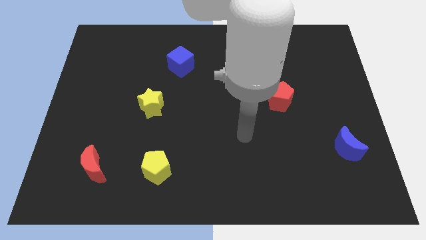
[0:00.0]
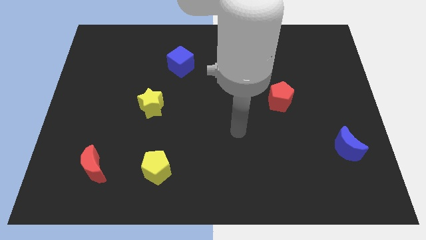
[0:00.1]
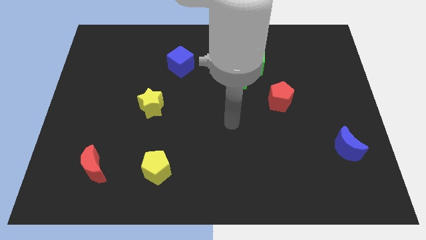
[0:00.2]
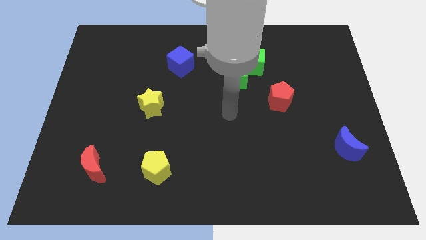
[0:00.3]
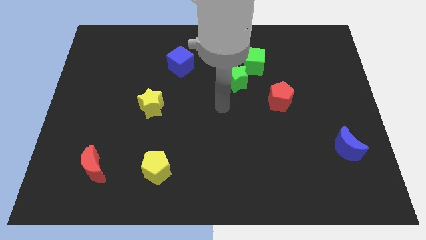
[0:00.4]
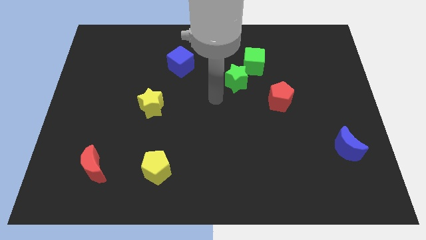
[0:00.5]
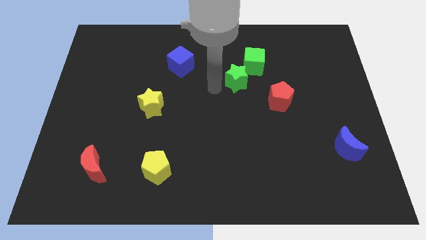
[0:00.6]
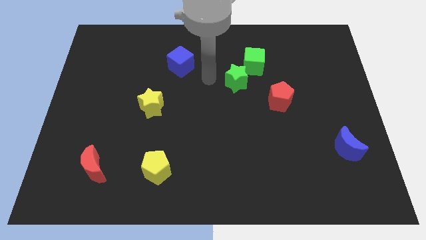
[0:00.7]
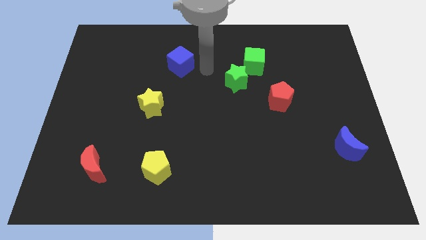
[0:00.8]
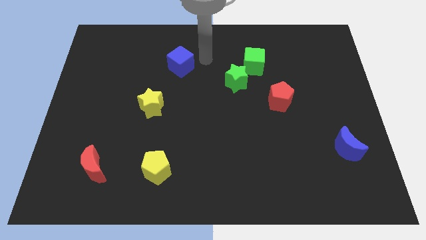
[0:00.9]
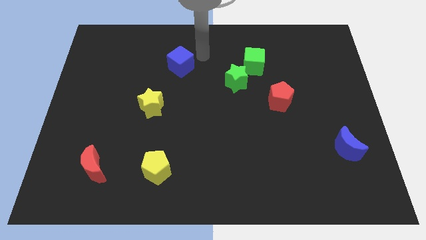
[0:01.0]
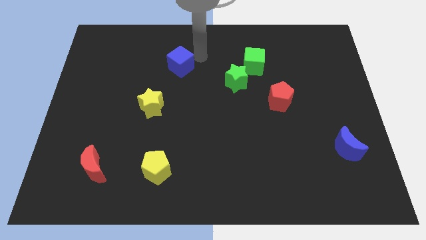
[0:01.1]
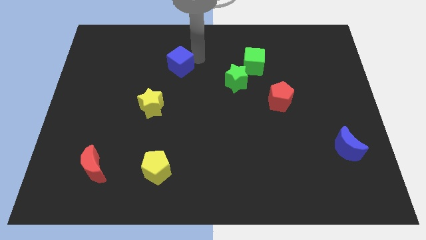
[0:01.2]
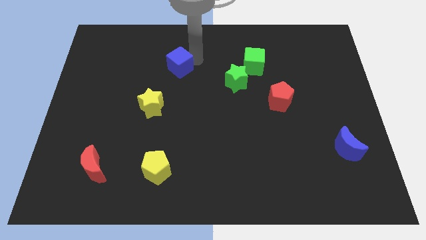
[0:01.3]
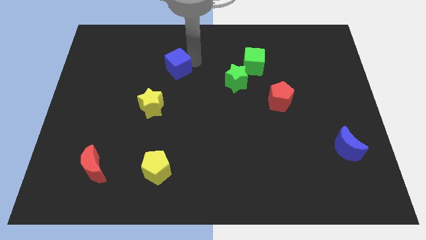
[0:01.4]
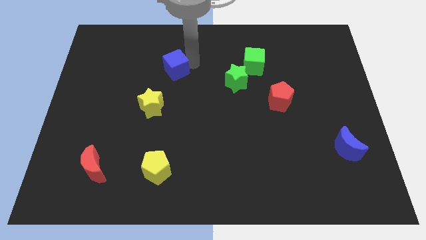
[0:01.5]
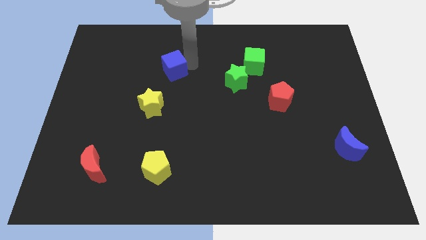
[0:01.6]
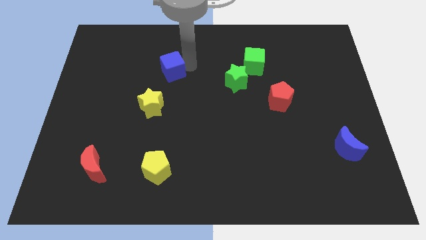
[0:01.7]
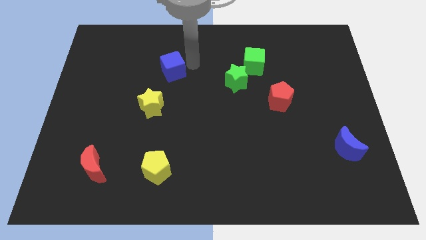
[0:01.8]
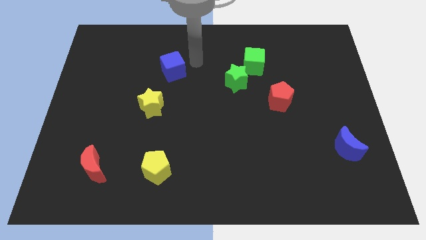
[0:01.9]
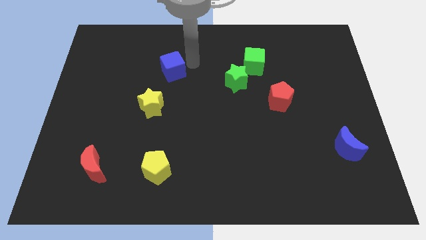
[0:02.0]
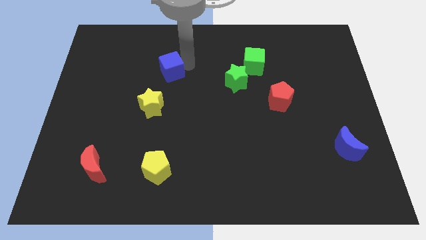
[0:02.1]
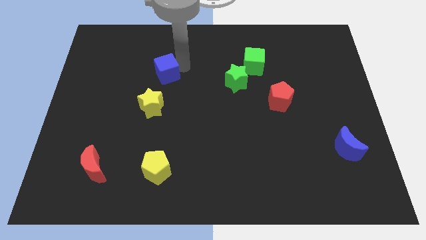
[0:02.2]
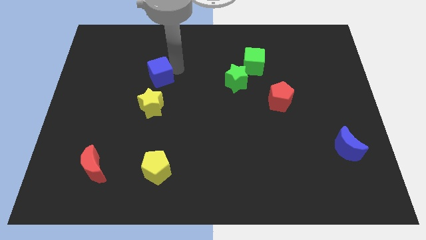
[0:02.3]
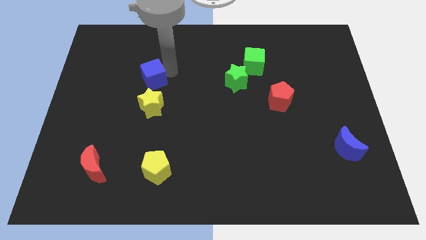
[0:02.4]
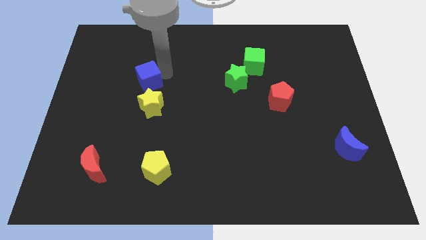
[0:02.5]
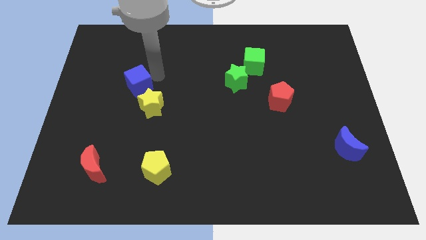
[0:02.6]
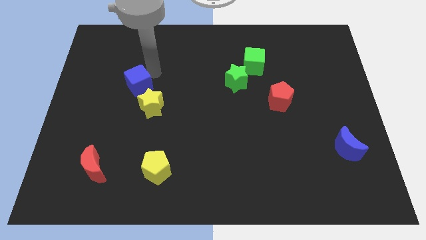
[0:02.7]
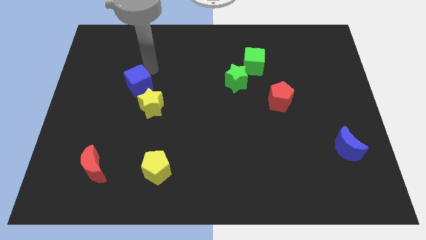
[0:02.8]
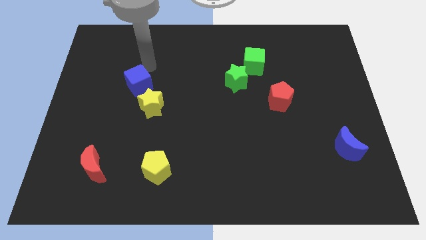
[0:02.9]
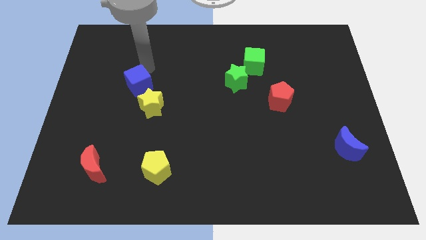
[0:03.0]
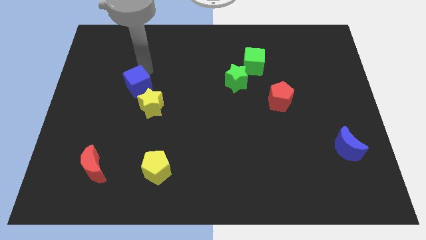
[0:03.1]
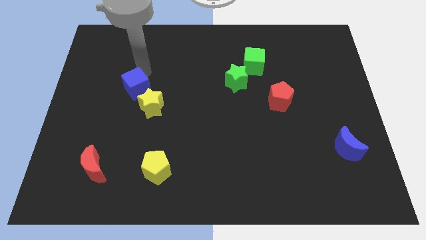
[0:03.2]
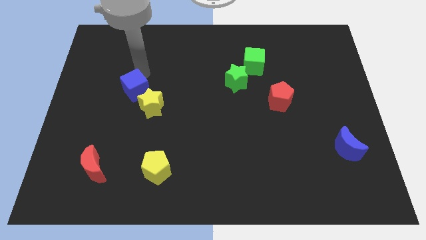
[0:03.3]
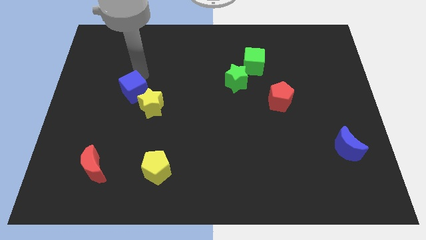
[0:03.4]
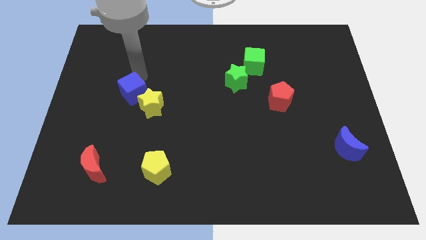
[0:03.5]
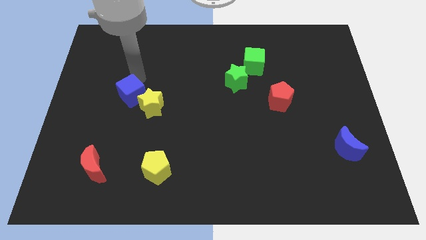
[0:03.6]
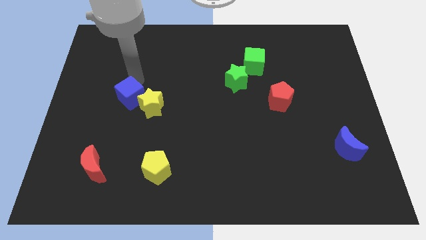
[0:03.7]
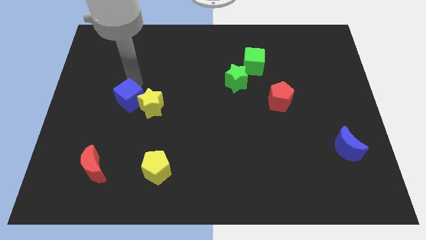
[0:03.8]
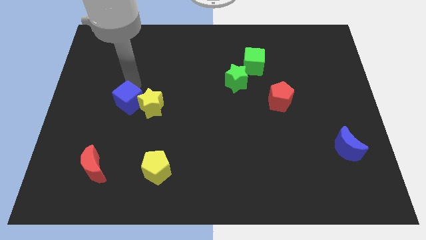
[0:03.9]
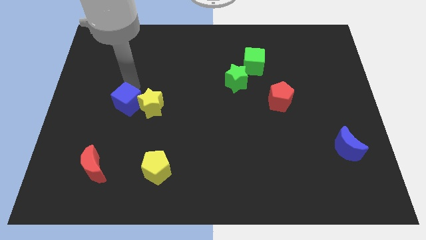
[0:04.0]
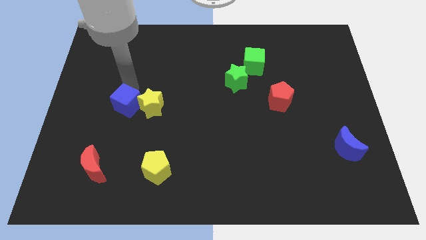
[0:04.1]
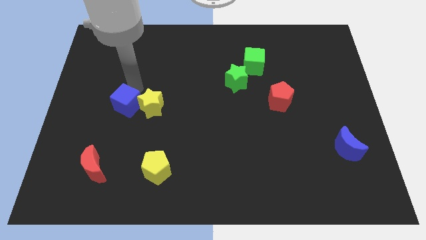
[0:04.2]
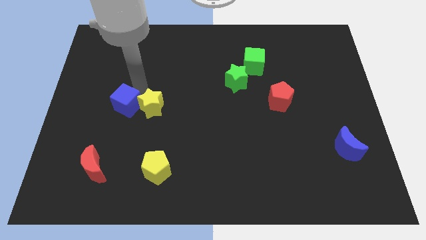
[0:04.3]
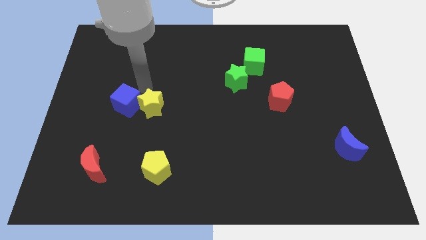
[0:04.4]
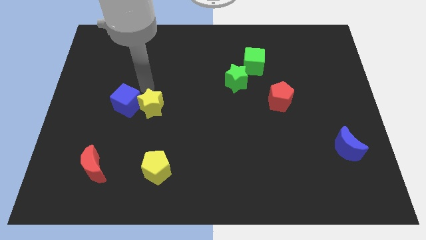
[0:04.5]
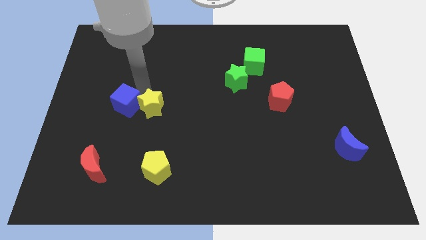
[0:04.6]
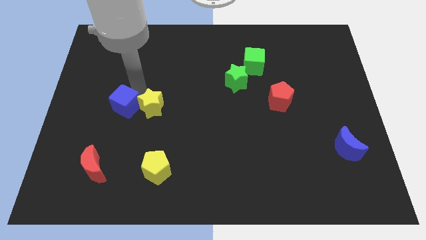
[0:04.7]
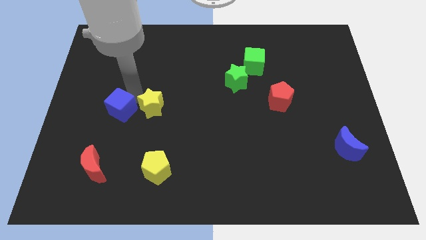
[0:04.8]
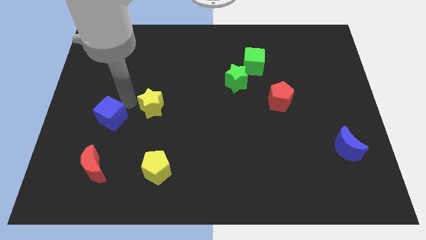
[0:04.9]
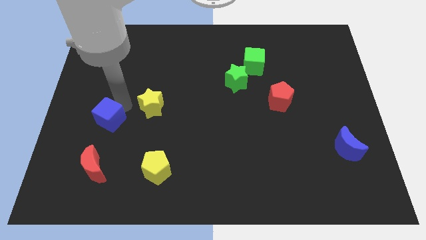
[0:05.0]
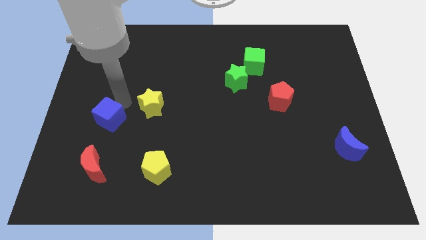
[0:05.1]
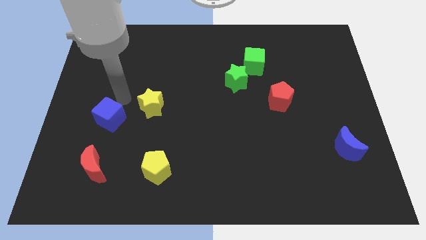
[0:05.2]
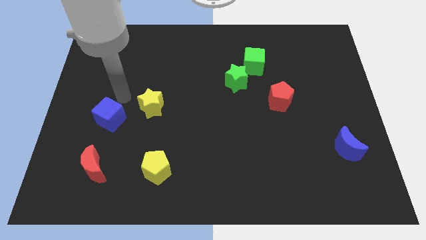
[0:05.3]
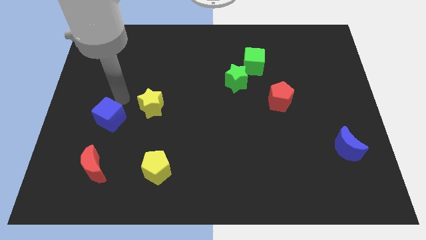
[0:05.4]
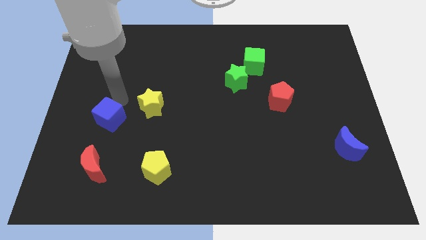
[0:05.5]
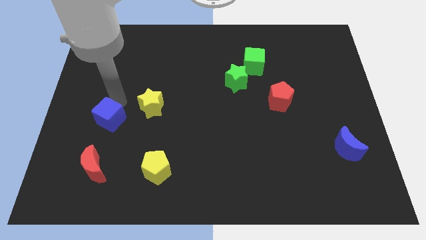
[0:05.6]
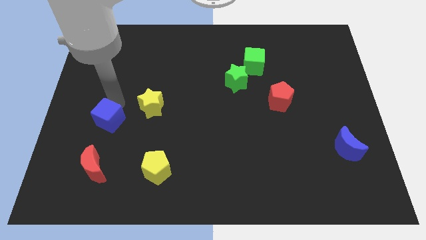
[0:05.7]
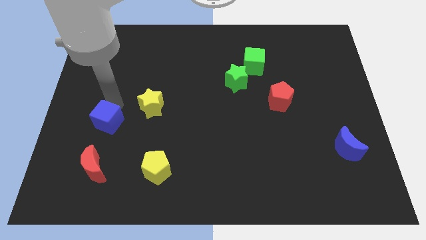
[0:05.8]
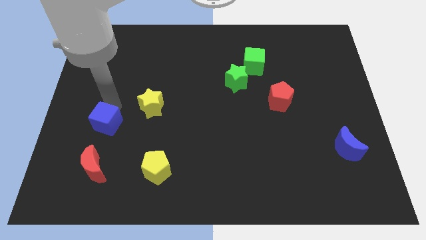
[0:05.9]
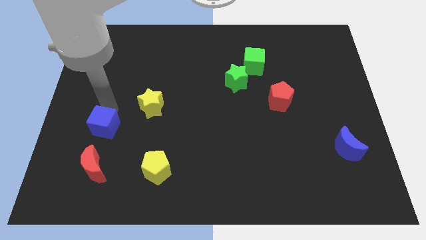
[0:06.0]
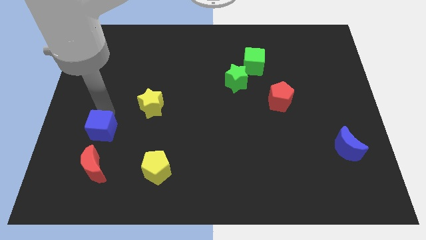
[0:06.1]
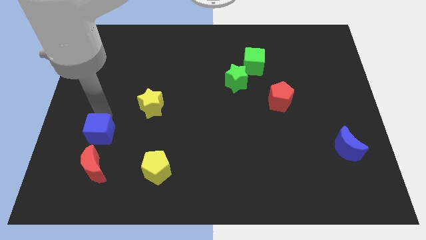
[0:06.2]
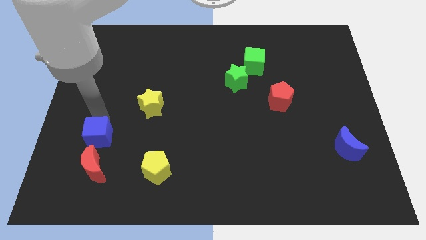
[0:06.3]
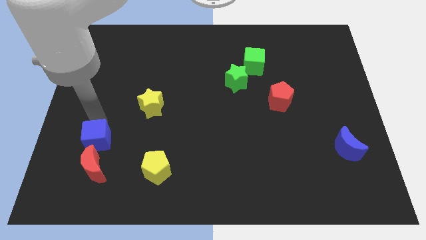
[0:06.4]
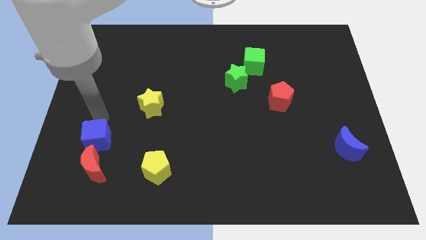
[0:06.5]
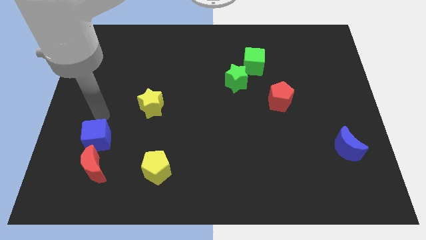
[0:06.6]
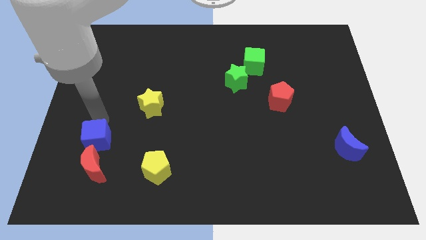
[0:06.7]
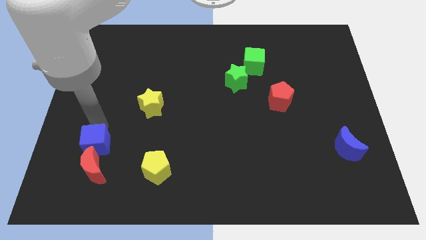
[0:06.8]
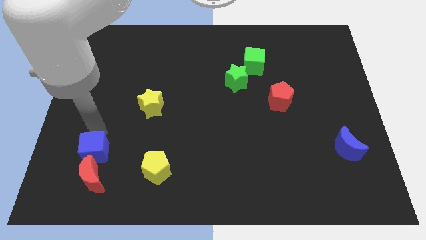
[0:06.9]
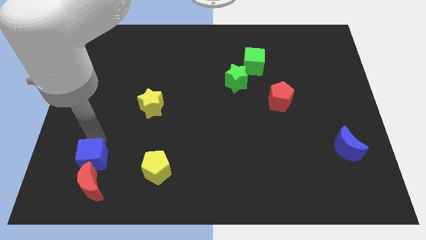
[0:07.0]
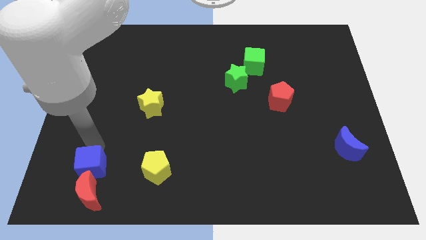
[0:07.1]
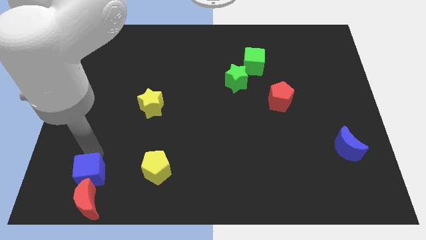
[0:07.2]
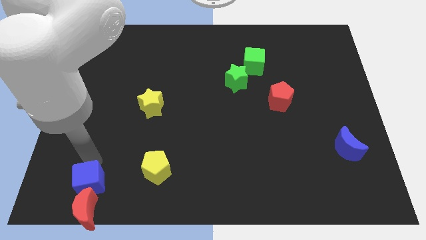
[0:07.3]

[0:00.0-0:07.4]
slide the blue cube close to the red moon
